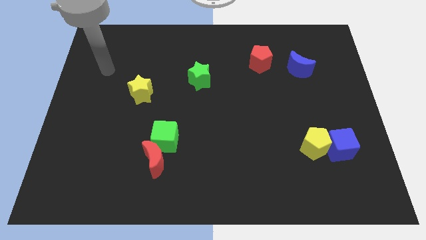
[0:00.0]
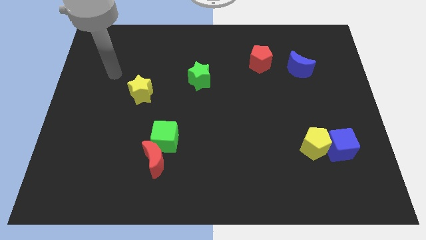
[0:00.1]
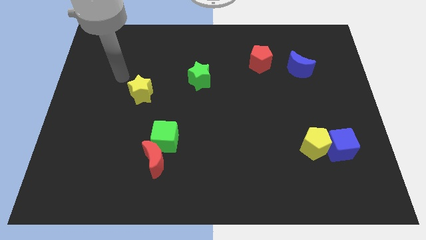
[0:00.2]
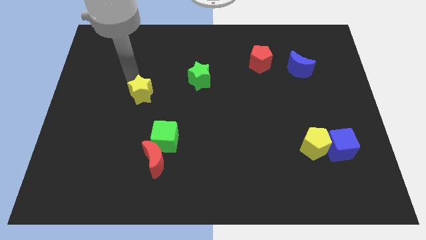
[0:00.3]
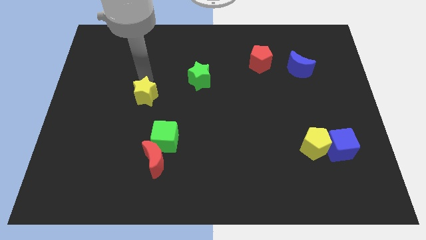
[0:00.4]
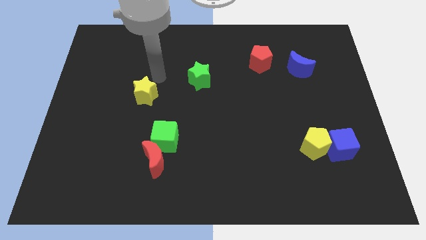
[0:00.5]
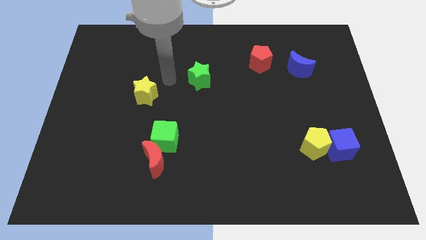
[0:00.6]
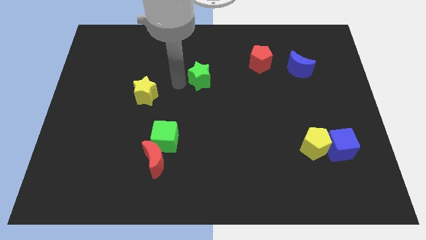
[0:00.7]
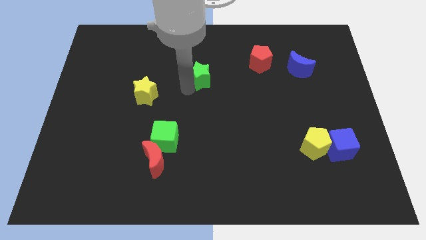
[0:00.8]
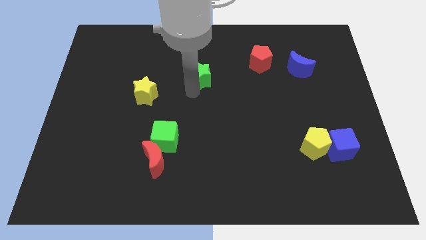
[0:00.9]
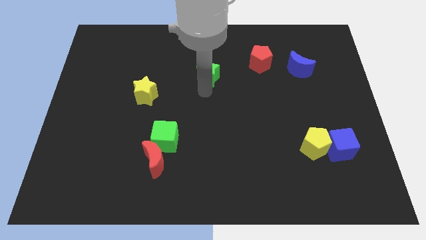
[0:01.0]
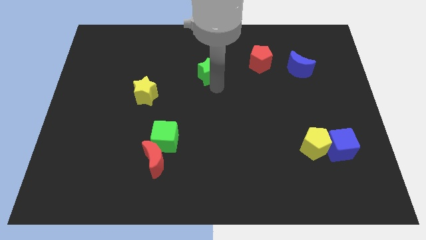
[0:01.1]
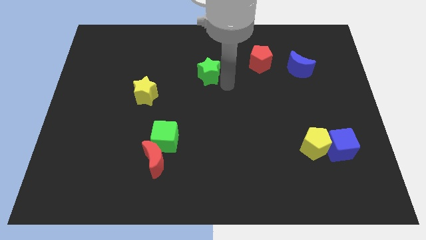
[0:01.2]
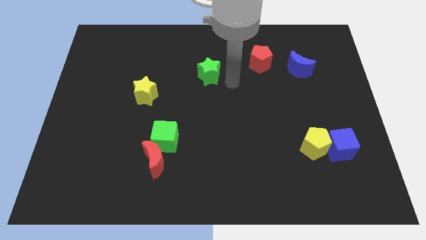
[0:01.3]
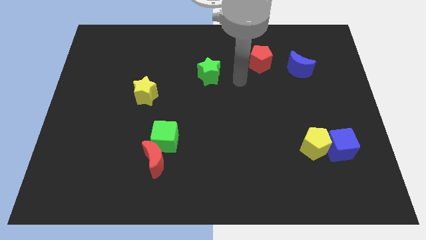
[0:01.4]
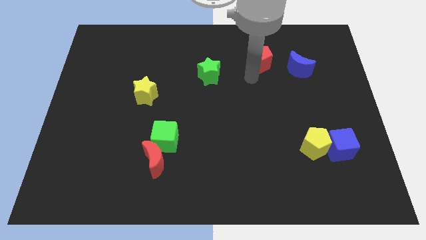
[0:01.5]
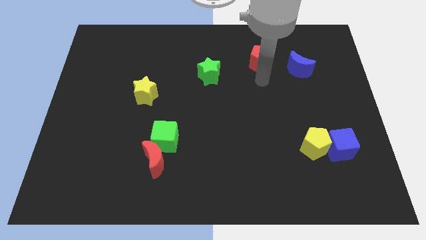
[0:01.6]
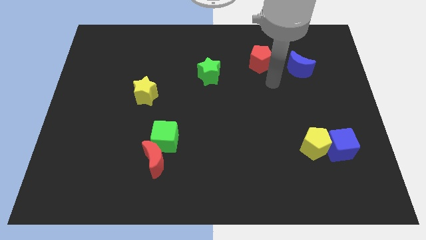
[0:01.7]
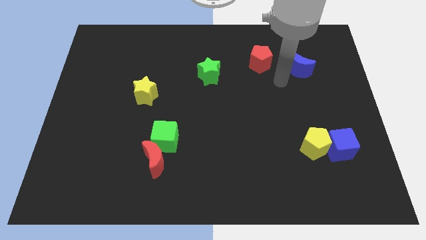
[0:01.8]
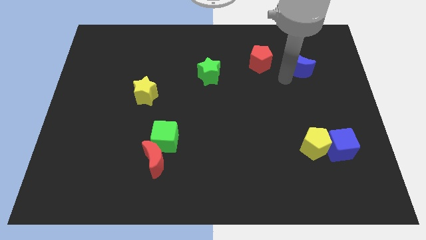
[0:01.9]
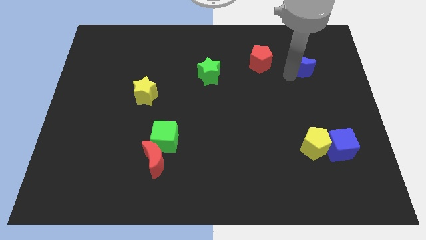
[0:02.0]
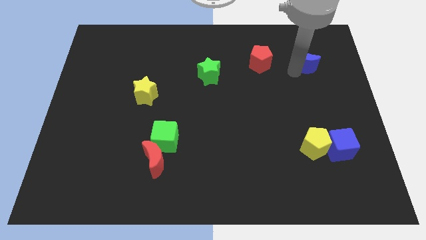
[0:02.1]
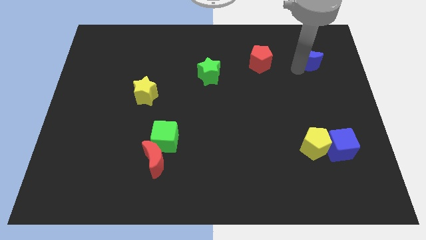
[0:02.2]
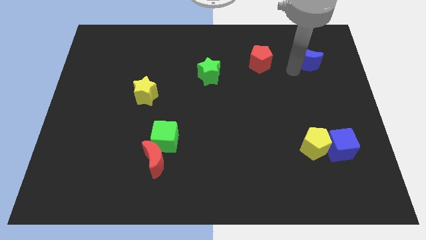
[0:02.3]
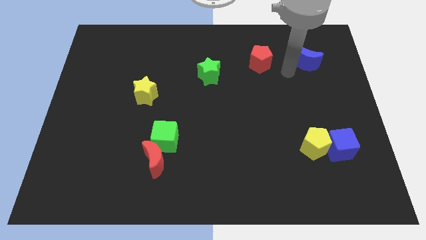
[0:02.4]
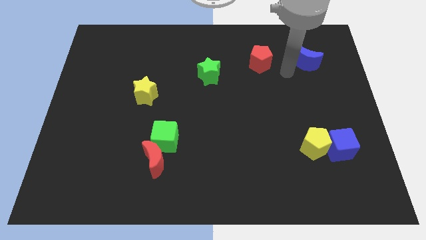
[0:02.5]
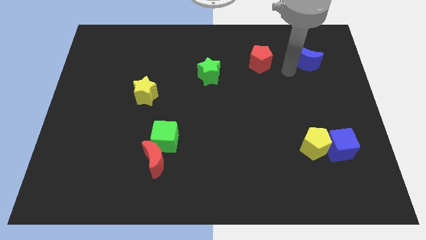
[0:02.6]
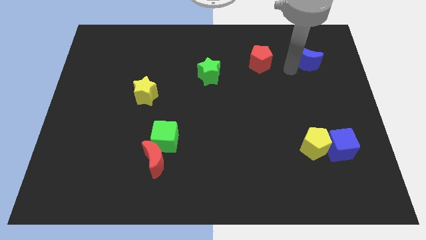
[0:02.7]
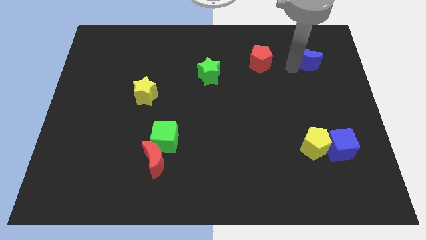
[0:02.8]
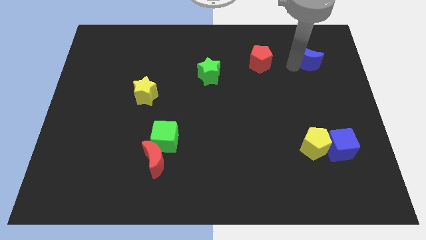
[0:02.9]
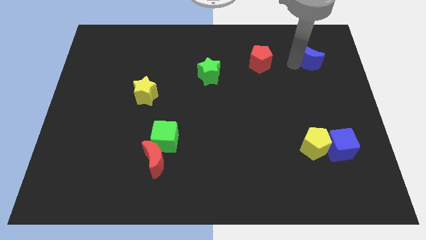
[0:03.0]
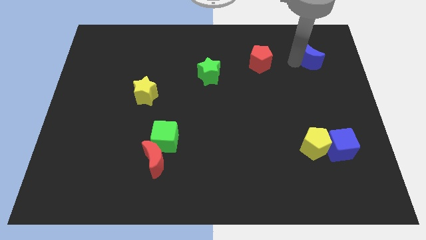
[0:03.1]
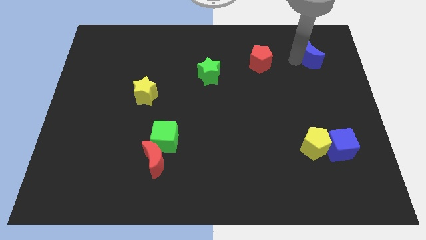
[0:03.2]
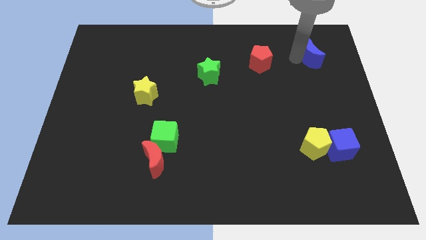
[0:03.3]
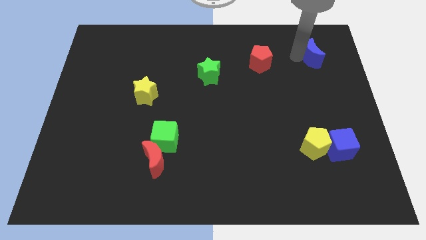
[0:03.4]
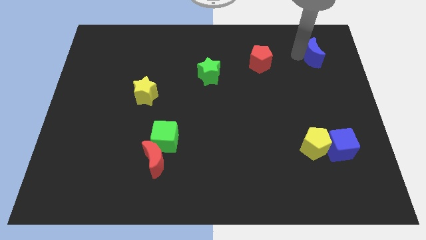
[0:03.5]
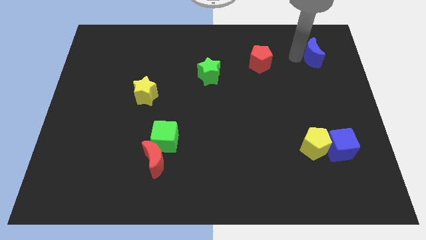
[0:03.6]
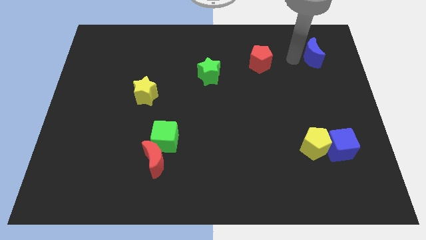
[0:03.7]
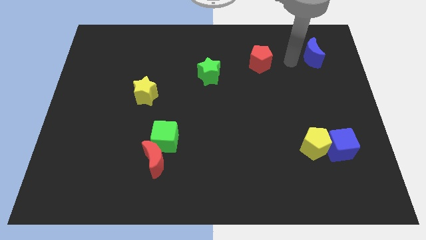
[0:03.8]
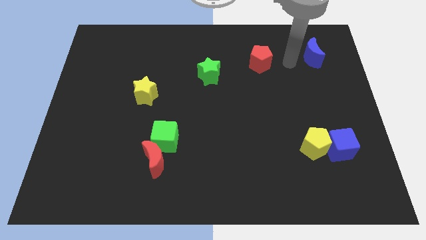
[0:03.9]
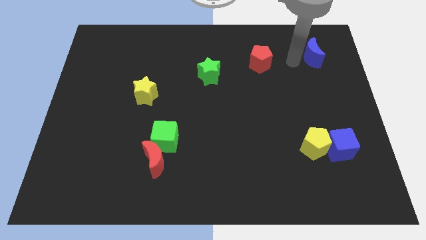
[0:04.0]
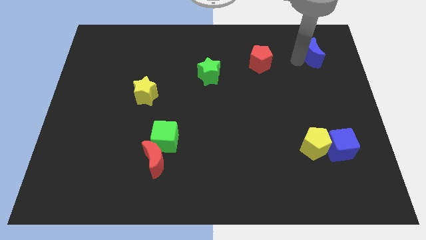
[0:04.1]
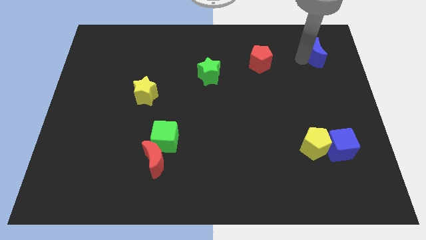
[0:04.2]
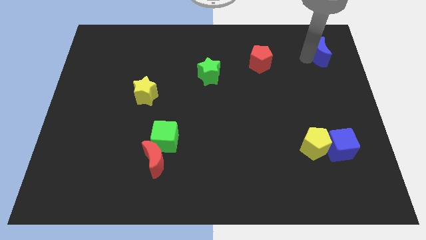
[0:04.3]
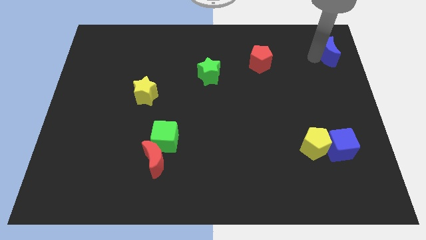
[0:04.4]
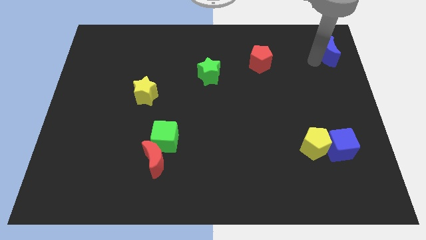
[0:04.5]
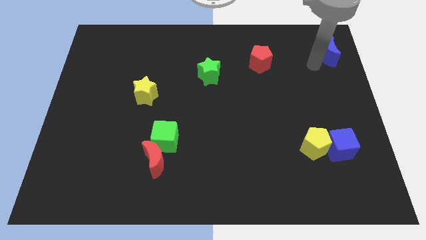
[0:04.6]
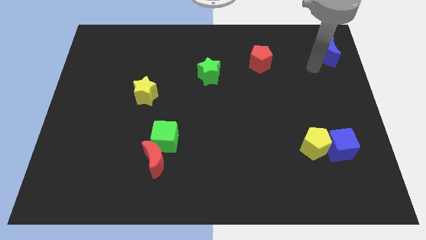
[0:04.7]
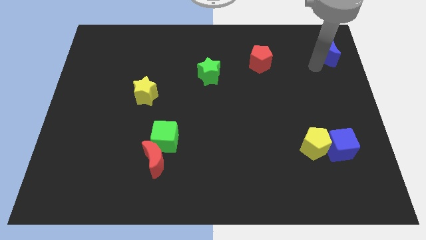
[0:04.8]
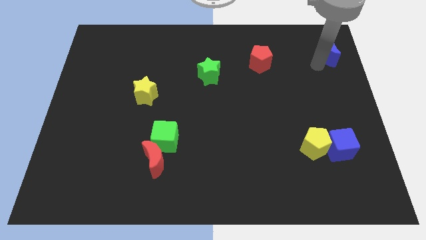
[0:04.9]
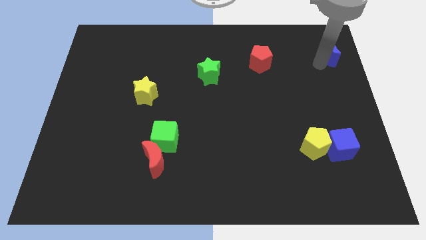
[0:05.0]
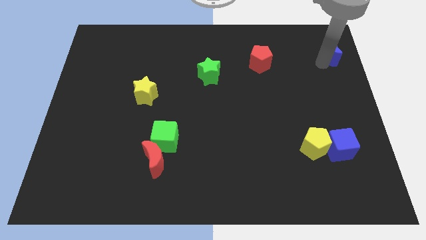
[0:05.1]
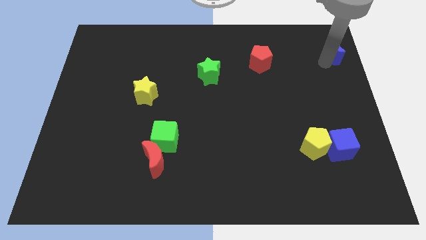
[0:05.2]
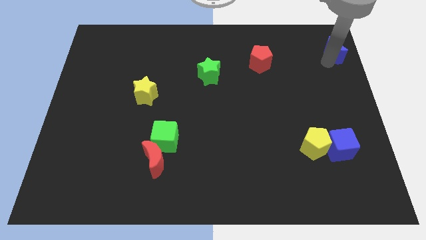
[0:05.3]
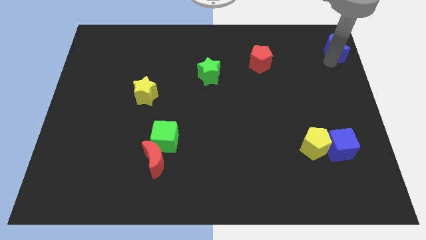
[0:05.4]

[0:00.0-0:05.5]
move the blue moon to the top right

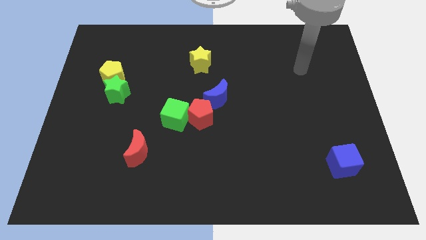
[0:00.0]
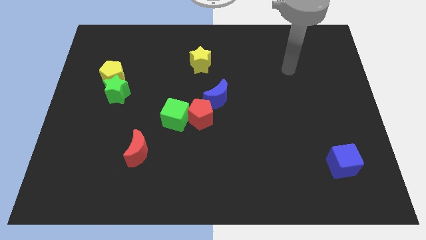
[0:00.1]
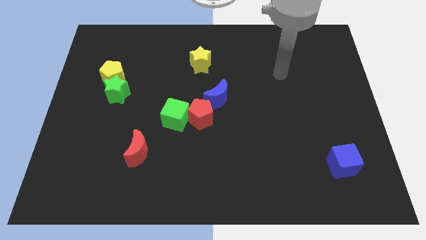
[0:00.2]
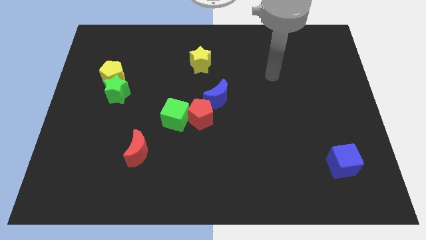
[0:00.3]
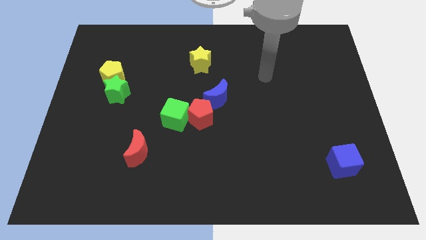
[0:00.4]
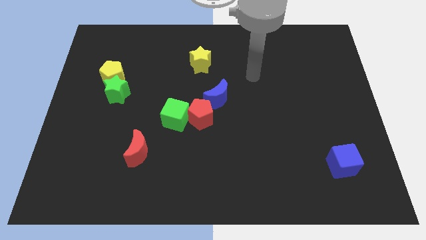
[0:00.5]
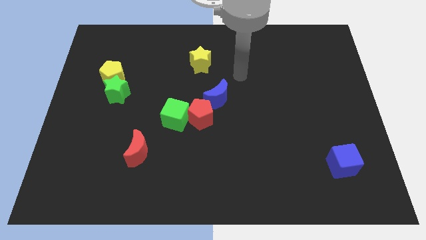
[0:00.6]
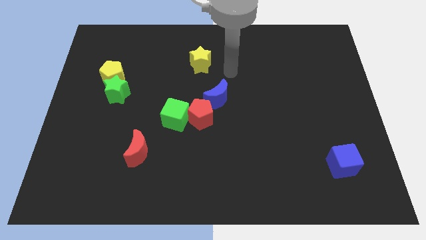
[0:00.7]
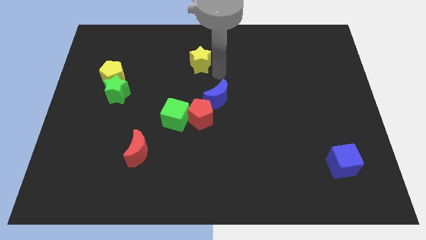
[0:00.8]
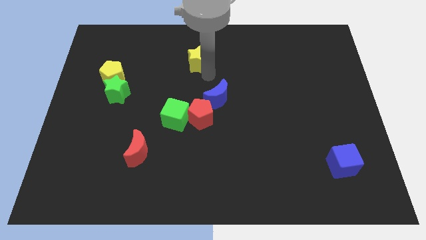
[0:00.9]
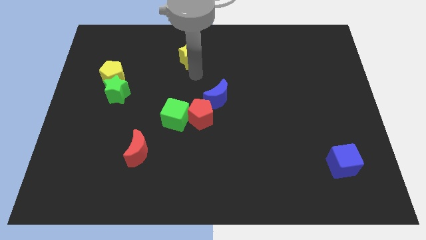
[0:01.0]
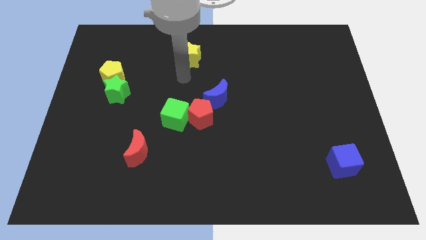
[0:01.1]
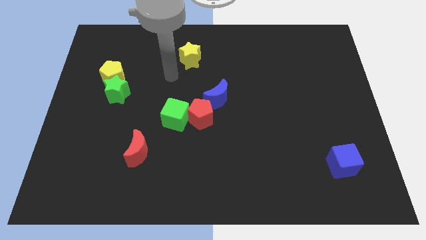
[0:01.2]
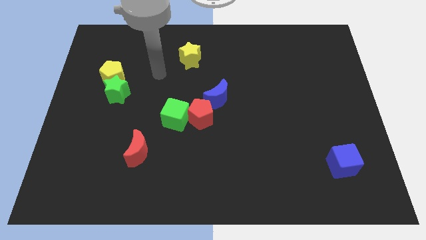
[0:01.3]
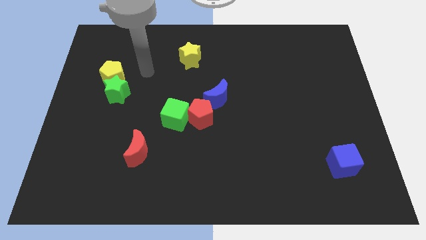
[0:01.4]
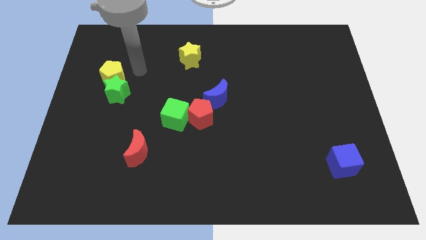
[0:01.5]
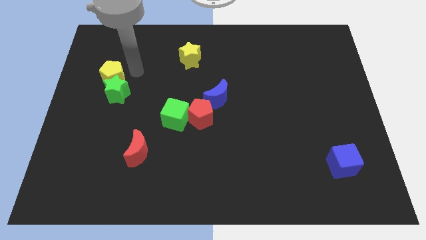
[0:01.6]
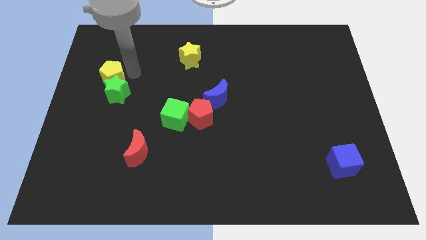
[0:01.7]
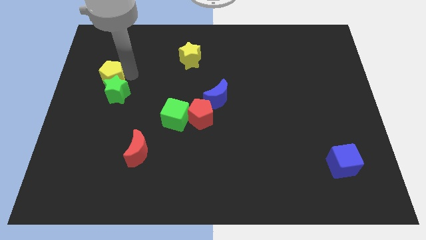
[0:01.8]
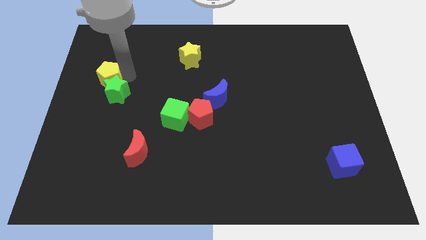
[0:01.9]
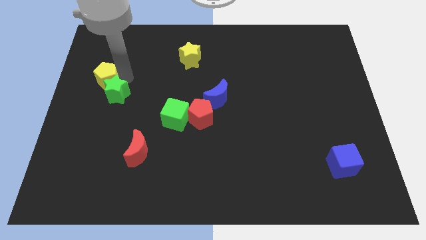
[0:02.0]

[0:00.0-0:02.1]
put the yellow pentagon to the left side
